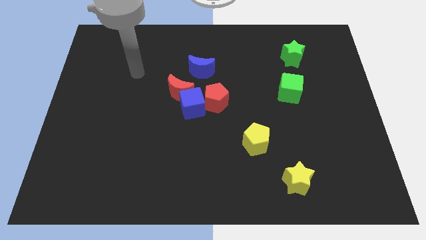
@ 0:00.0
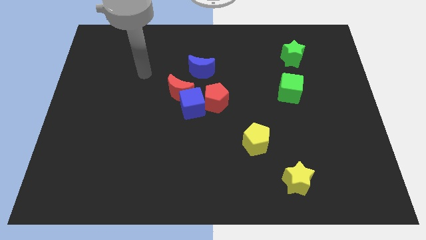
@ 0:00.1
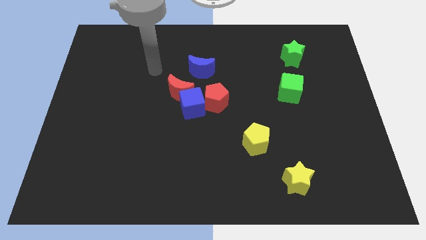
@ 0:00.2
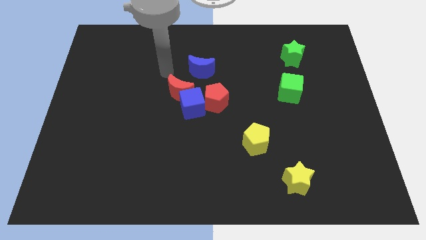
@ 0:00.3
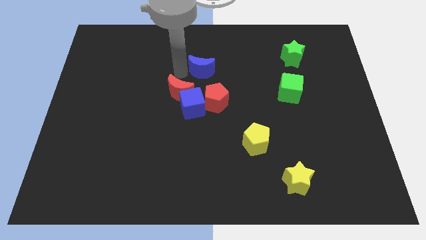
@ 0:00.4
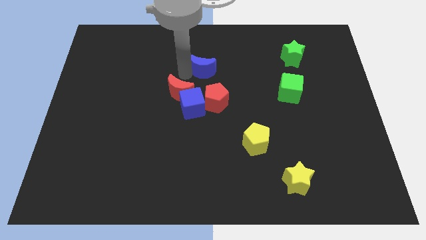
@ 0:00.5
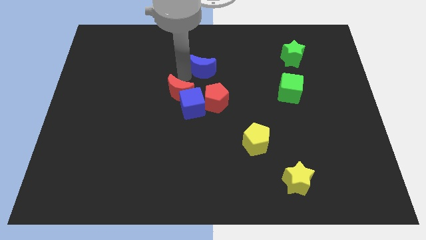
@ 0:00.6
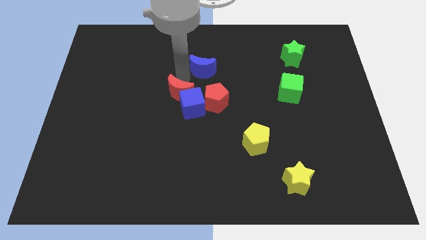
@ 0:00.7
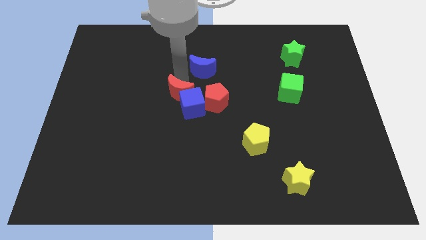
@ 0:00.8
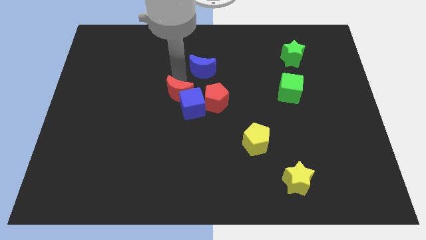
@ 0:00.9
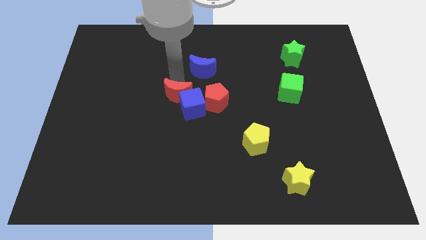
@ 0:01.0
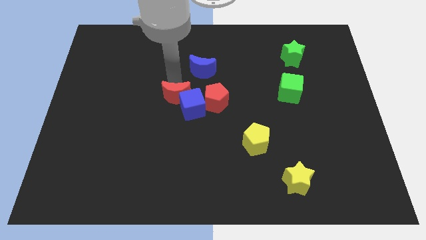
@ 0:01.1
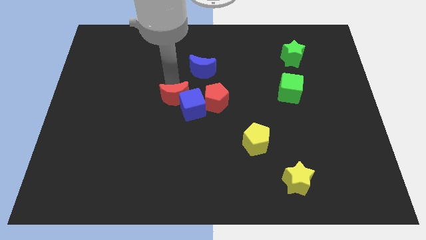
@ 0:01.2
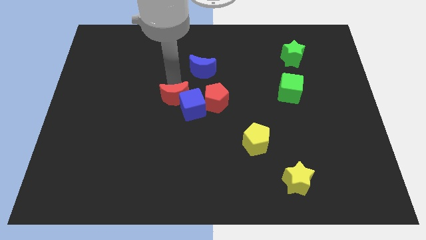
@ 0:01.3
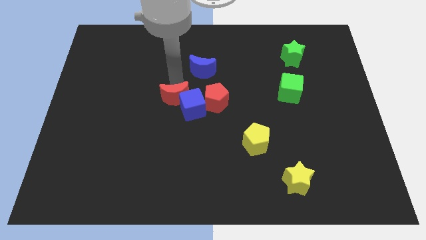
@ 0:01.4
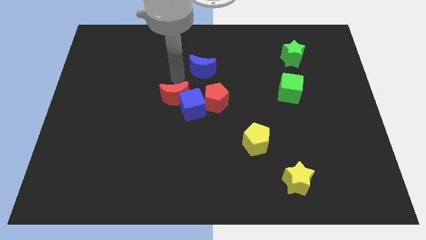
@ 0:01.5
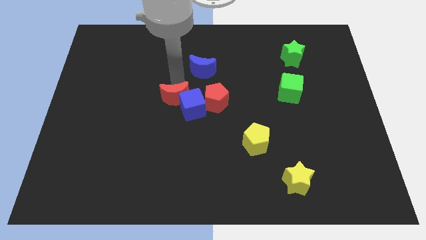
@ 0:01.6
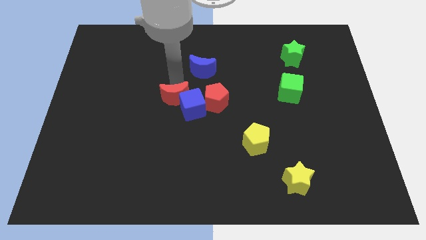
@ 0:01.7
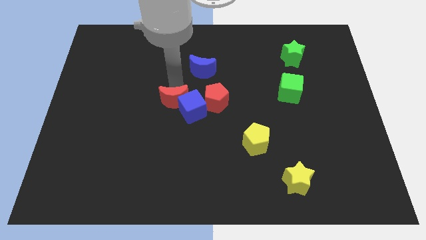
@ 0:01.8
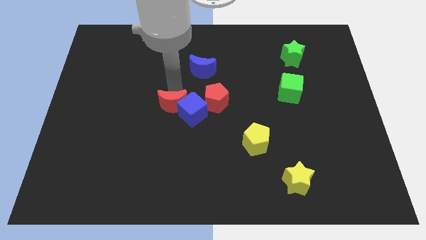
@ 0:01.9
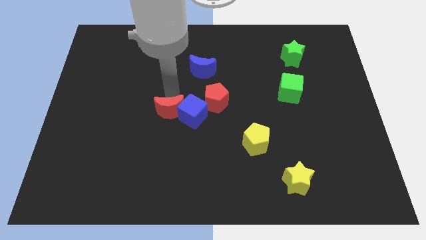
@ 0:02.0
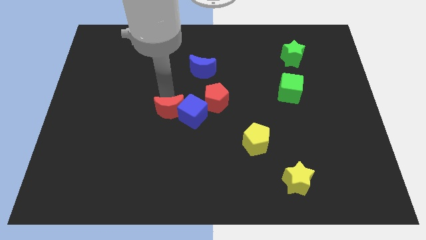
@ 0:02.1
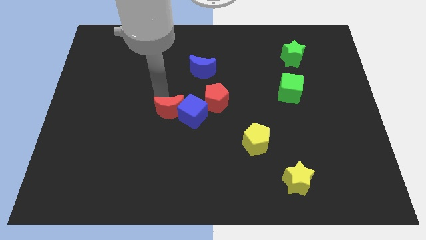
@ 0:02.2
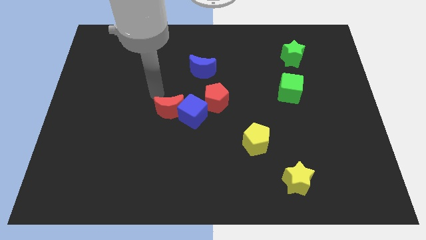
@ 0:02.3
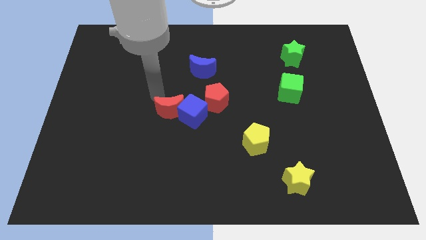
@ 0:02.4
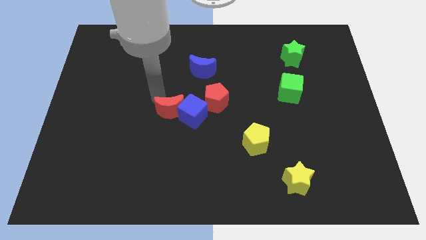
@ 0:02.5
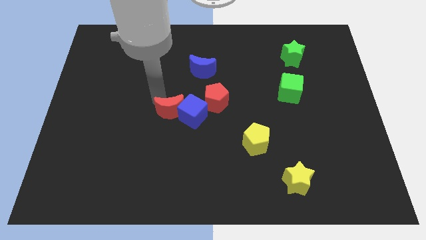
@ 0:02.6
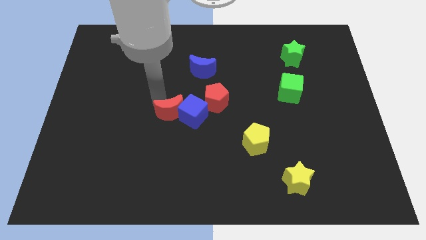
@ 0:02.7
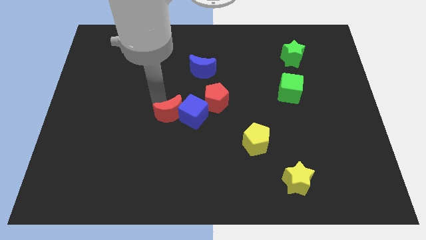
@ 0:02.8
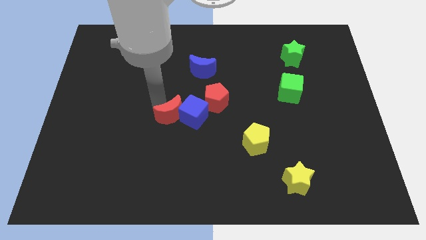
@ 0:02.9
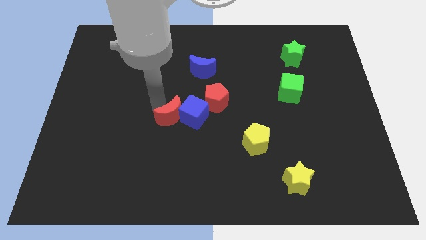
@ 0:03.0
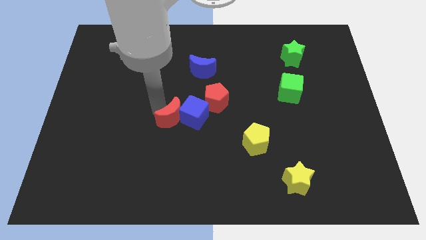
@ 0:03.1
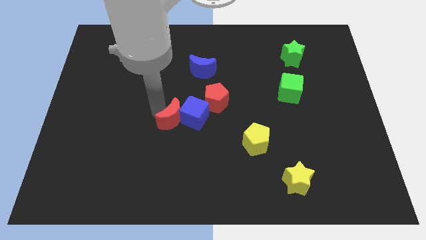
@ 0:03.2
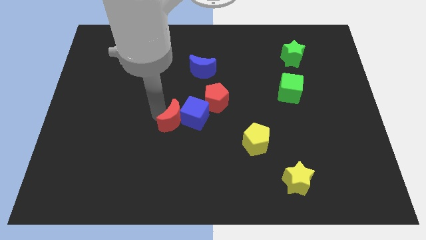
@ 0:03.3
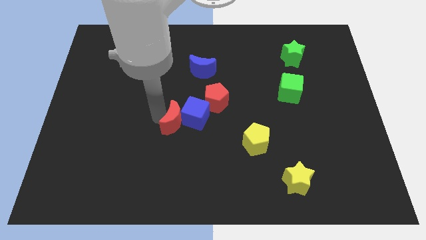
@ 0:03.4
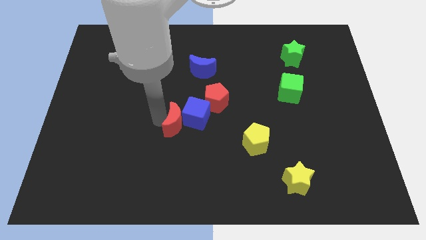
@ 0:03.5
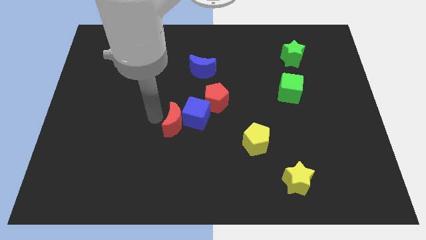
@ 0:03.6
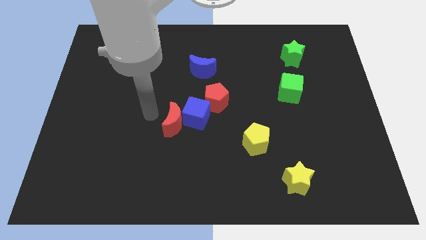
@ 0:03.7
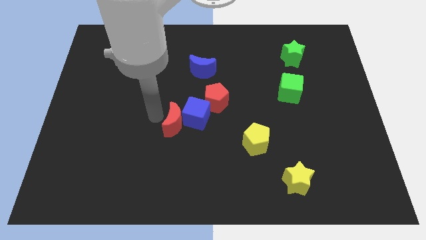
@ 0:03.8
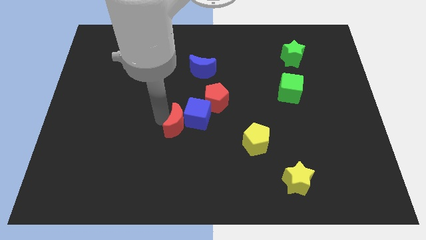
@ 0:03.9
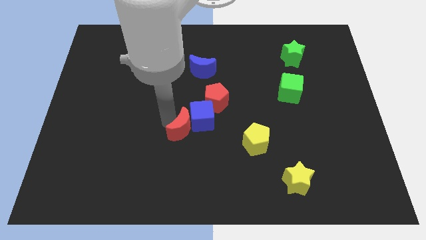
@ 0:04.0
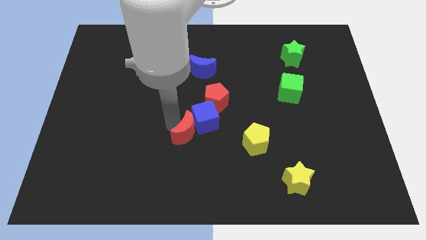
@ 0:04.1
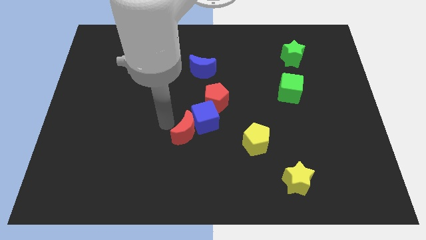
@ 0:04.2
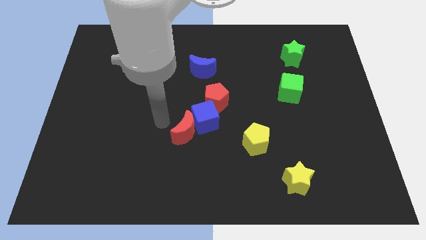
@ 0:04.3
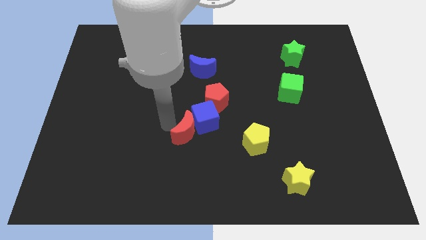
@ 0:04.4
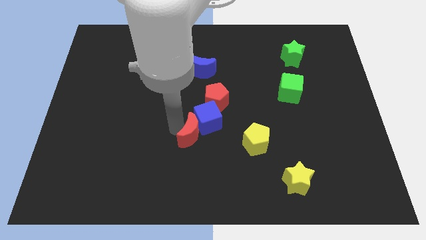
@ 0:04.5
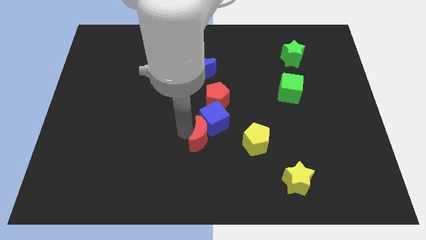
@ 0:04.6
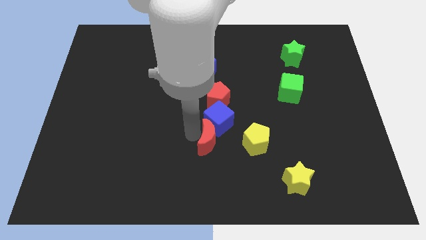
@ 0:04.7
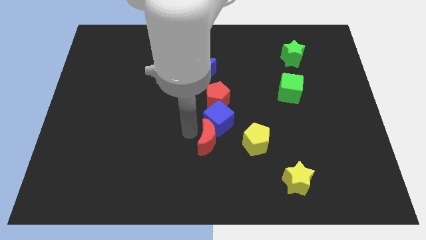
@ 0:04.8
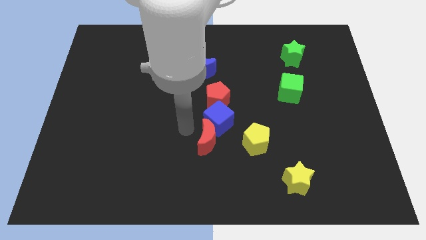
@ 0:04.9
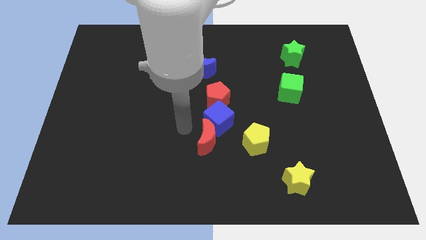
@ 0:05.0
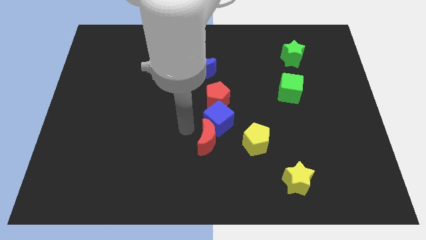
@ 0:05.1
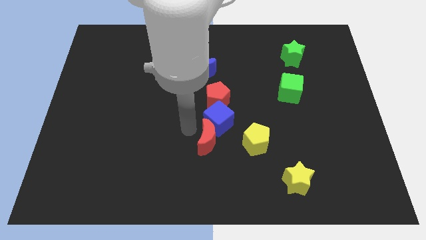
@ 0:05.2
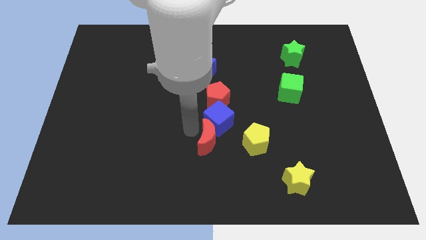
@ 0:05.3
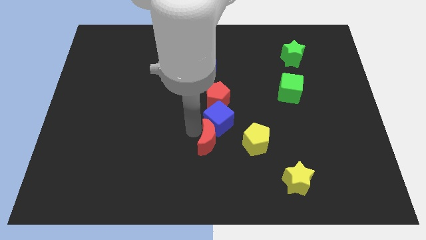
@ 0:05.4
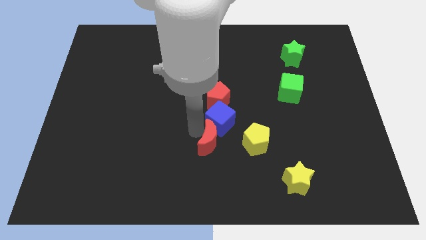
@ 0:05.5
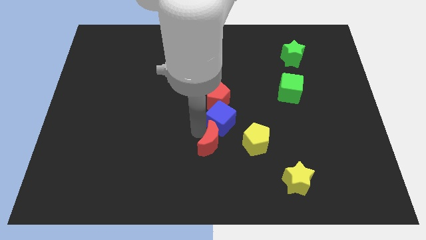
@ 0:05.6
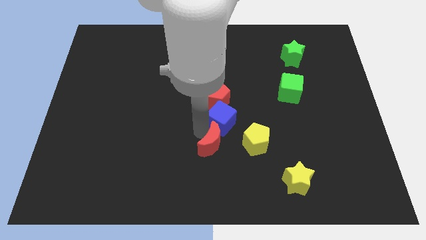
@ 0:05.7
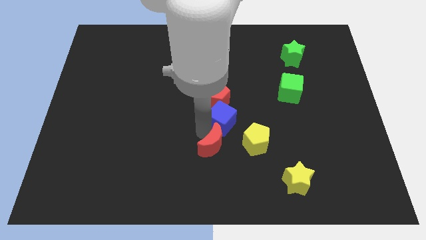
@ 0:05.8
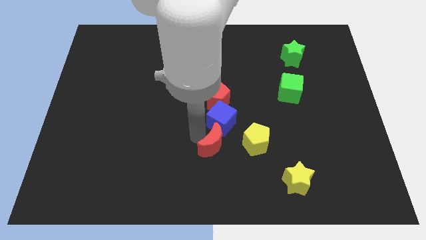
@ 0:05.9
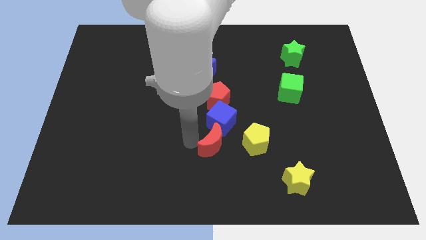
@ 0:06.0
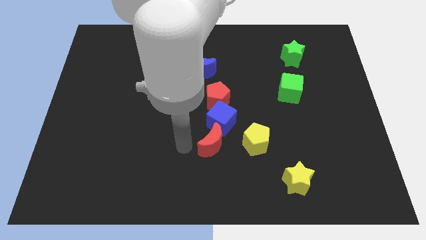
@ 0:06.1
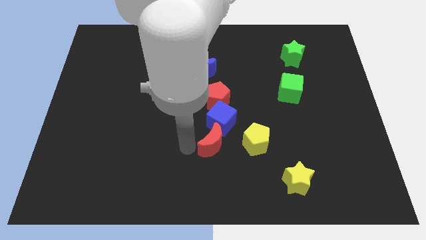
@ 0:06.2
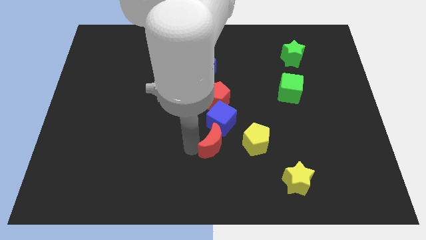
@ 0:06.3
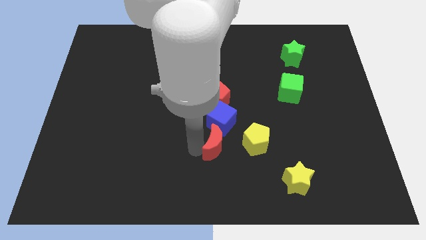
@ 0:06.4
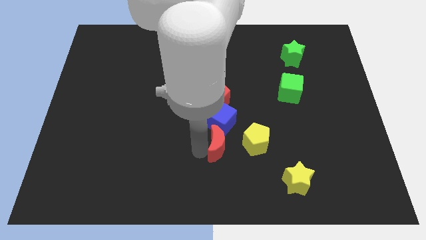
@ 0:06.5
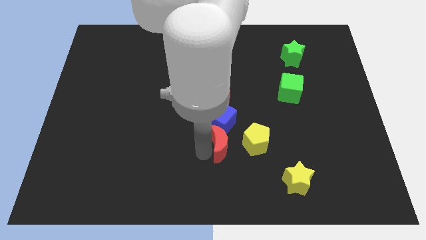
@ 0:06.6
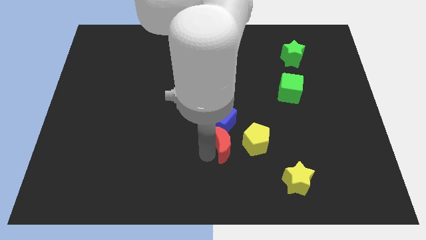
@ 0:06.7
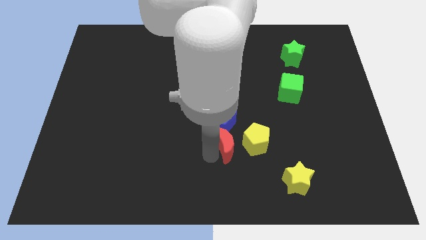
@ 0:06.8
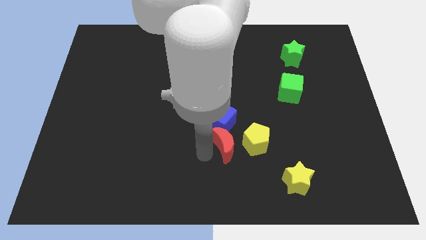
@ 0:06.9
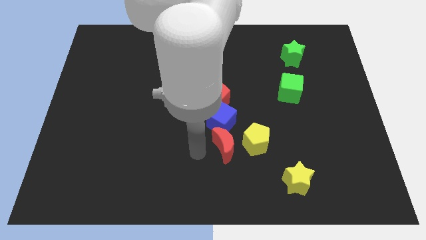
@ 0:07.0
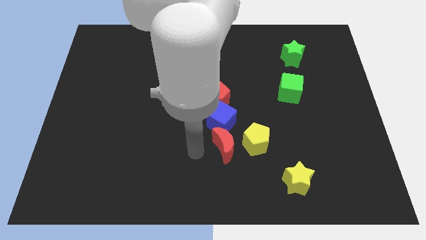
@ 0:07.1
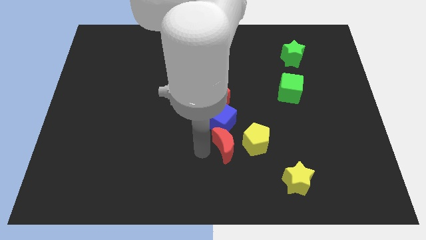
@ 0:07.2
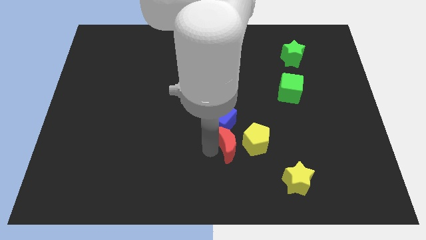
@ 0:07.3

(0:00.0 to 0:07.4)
put the red moon towards the yellow pentagon
